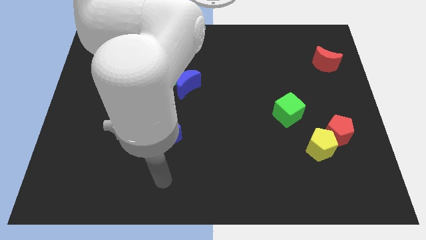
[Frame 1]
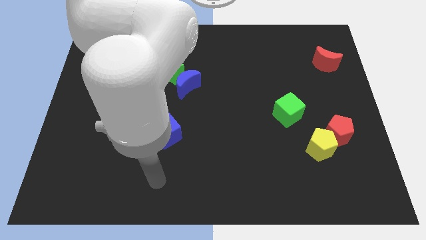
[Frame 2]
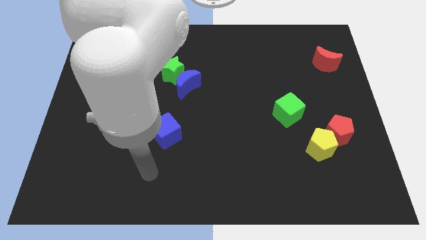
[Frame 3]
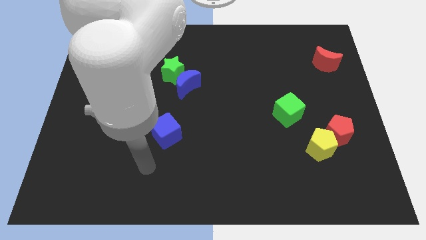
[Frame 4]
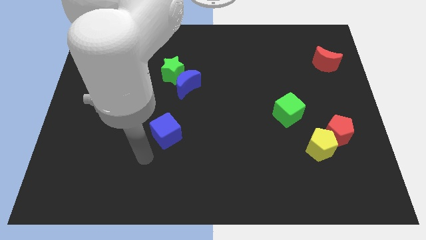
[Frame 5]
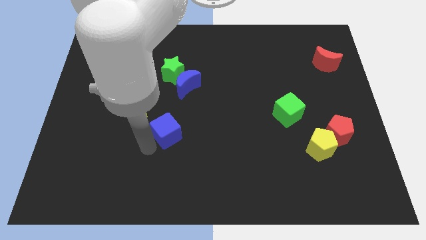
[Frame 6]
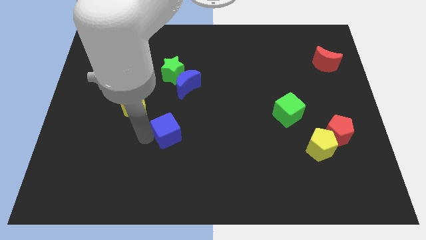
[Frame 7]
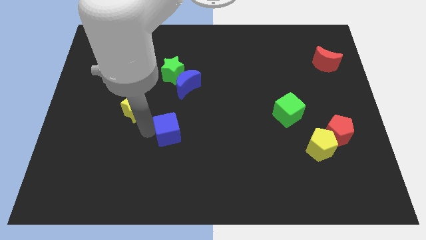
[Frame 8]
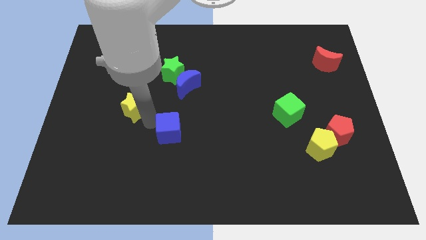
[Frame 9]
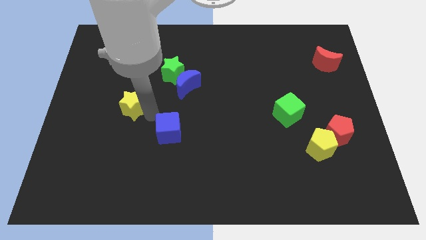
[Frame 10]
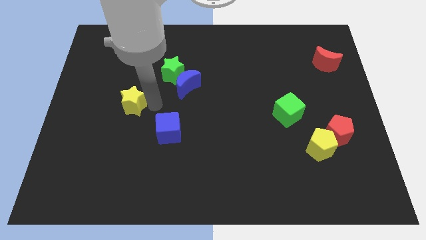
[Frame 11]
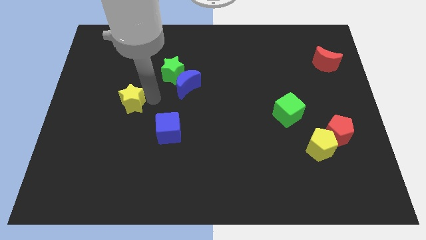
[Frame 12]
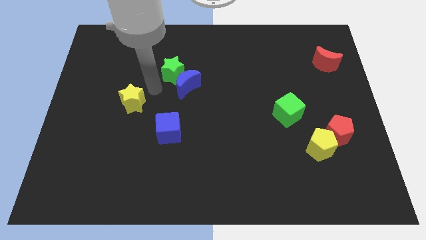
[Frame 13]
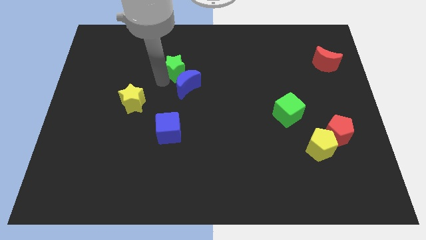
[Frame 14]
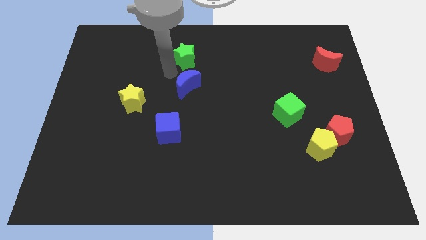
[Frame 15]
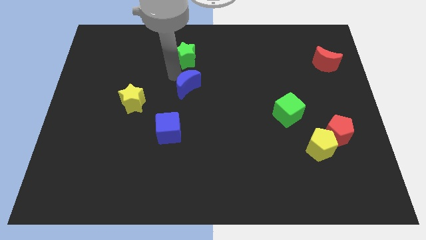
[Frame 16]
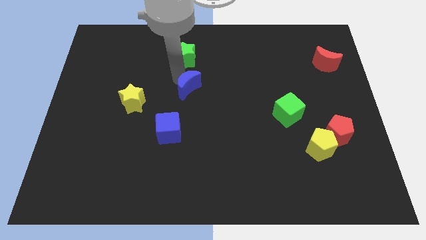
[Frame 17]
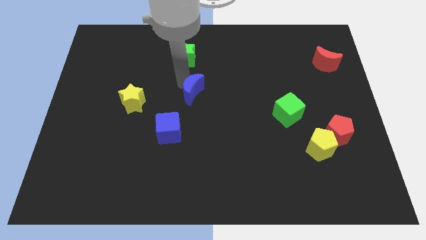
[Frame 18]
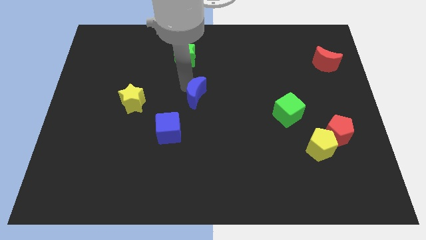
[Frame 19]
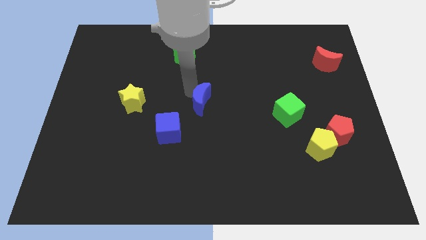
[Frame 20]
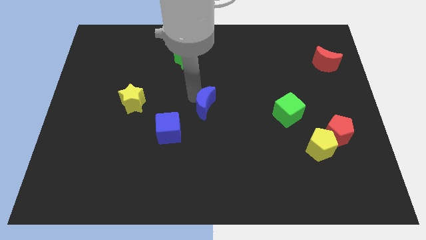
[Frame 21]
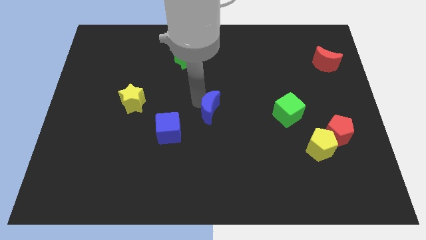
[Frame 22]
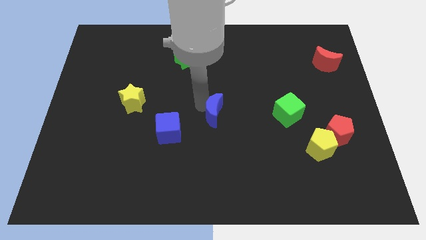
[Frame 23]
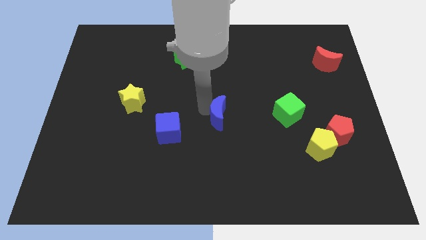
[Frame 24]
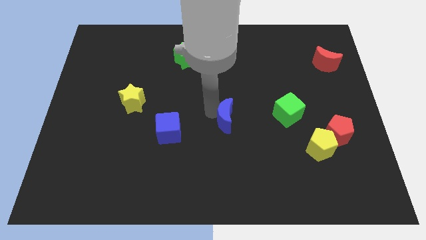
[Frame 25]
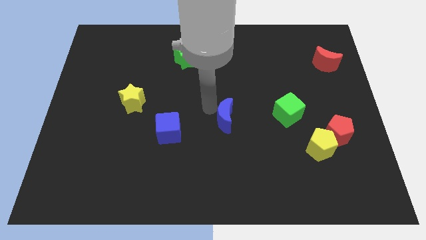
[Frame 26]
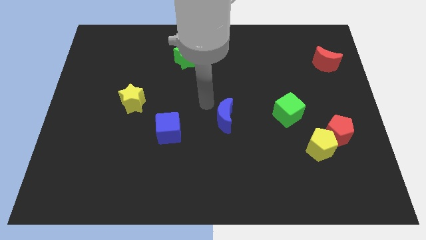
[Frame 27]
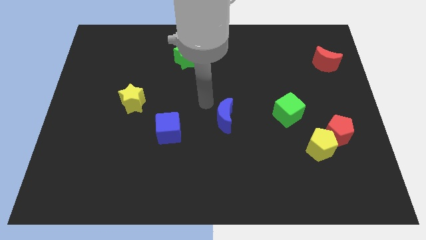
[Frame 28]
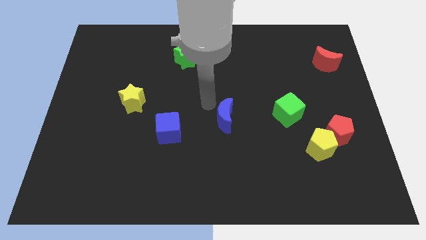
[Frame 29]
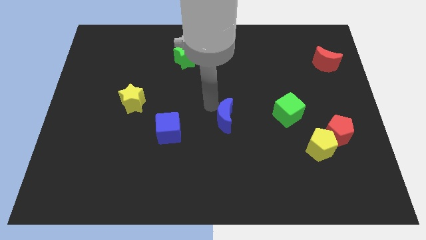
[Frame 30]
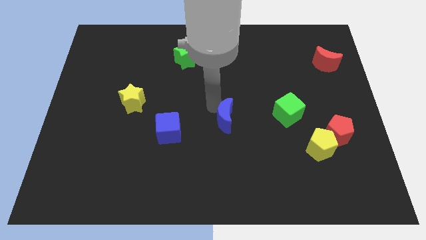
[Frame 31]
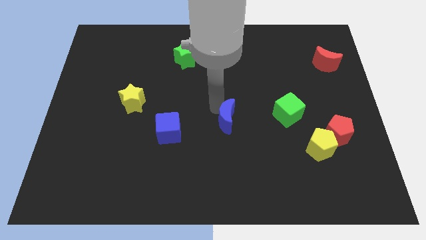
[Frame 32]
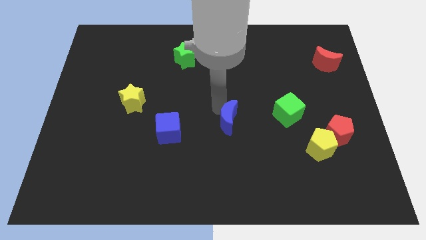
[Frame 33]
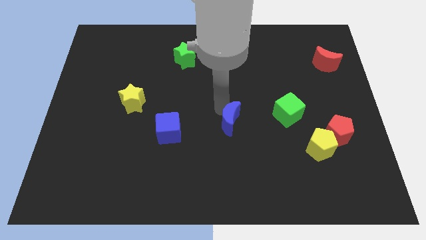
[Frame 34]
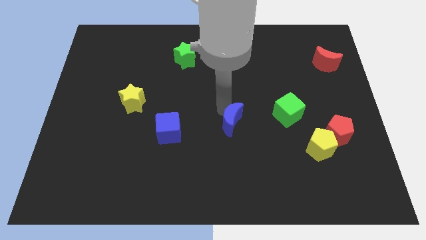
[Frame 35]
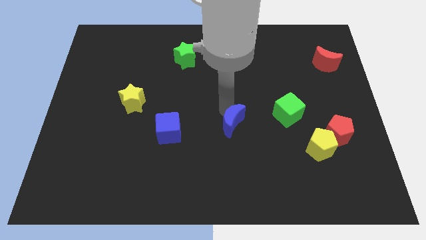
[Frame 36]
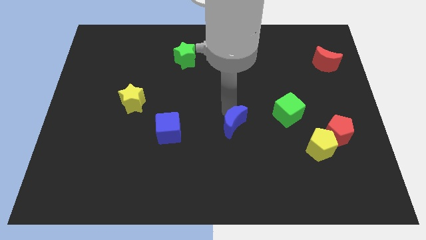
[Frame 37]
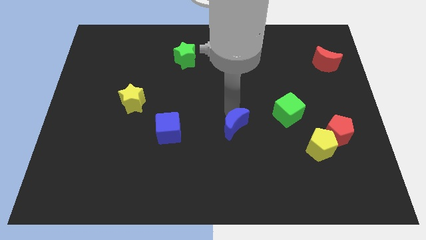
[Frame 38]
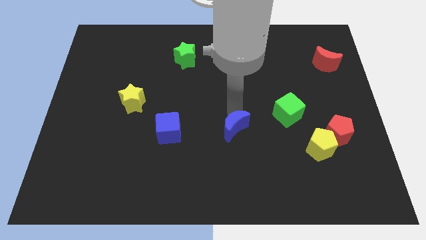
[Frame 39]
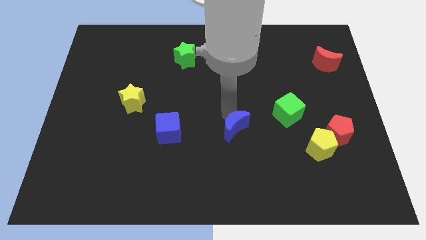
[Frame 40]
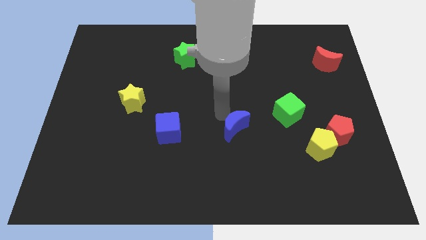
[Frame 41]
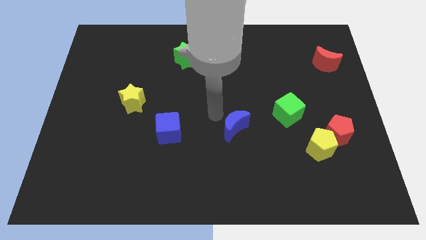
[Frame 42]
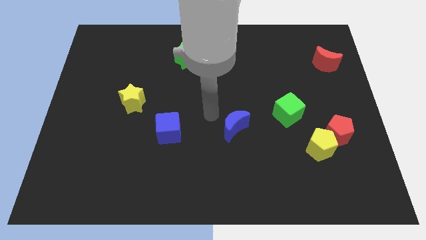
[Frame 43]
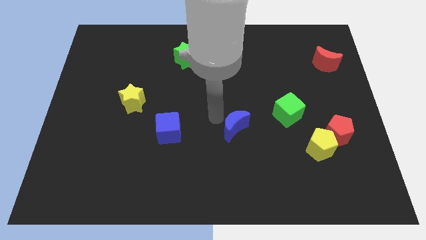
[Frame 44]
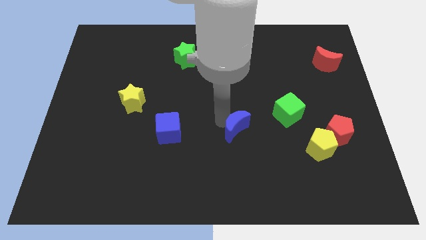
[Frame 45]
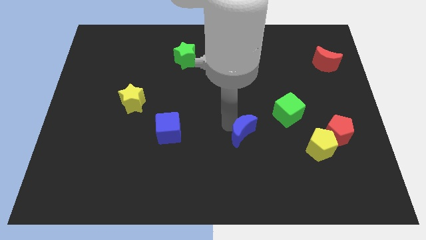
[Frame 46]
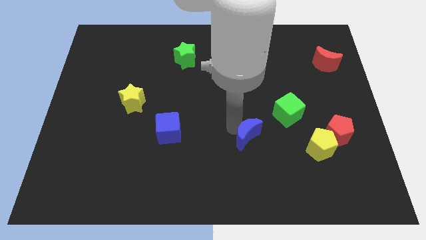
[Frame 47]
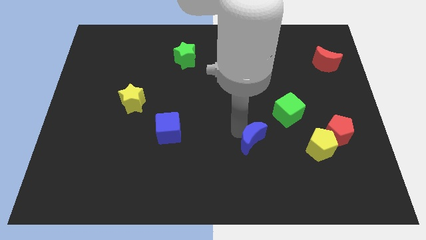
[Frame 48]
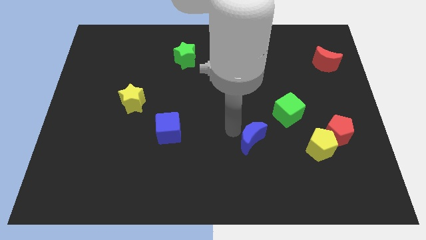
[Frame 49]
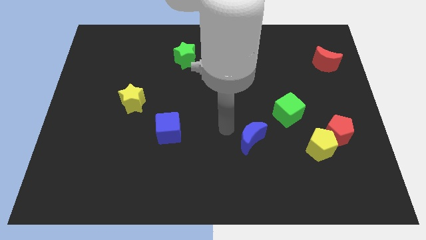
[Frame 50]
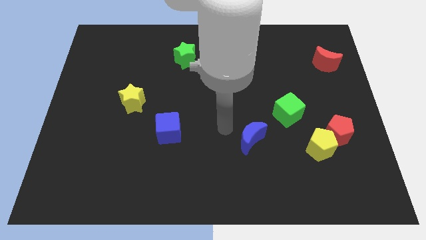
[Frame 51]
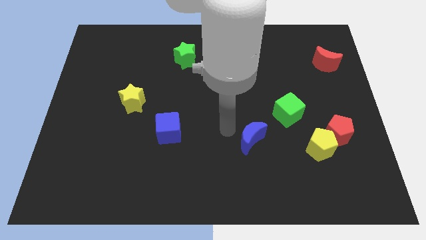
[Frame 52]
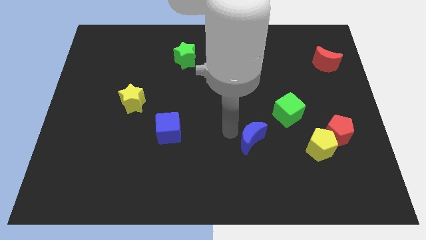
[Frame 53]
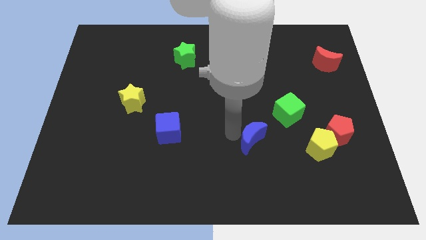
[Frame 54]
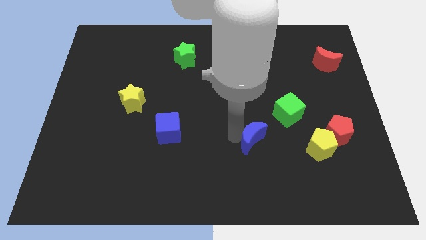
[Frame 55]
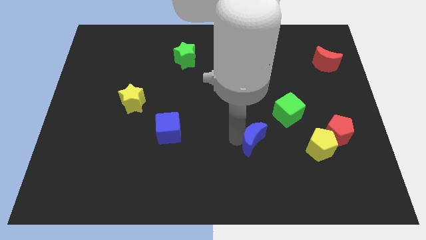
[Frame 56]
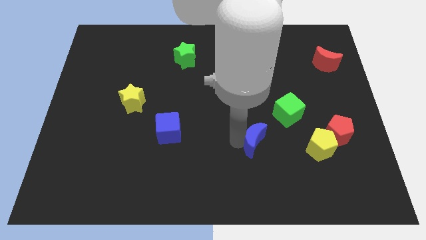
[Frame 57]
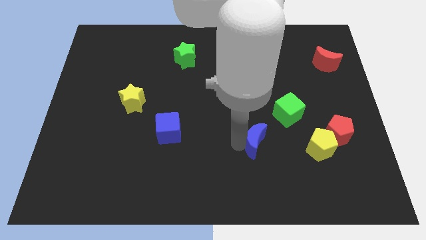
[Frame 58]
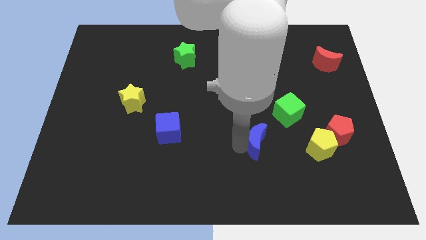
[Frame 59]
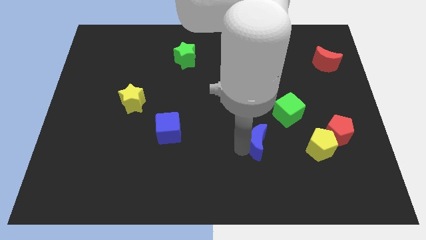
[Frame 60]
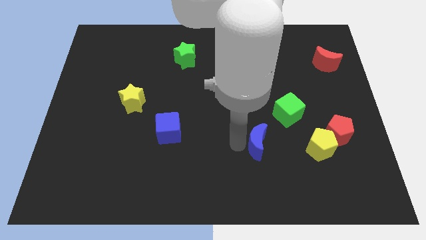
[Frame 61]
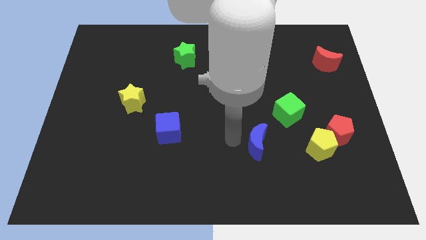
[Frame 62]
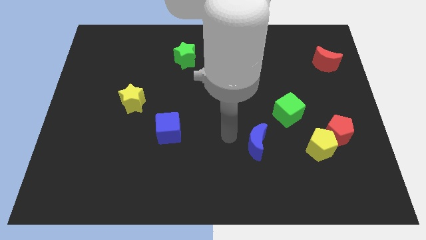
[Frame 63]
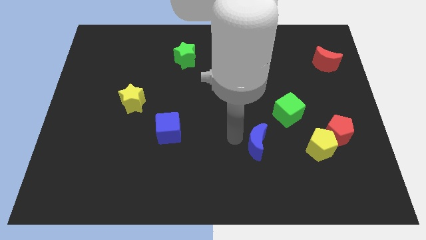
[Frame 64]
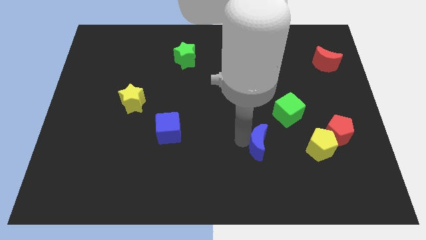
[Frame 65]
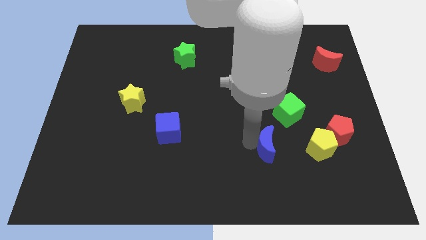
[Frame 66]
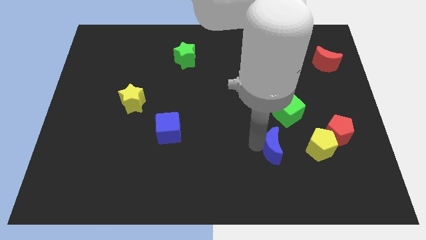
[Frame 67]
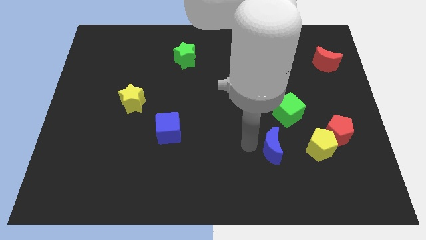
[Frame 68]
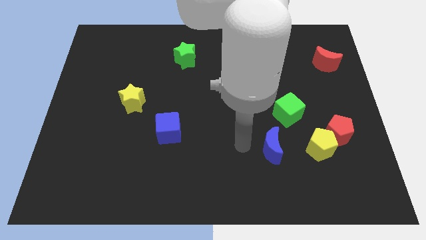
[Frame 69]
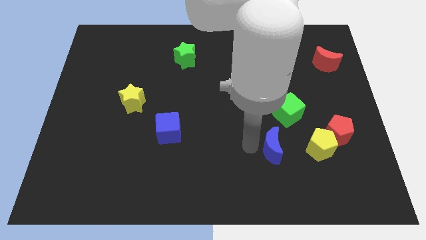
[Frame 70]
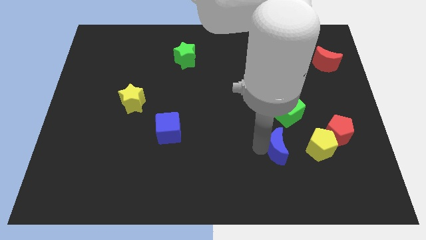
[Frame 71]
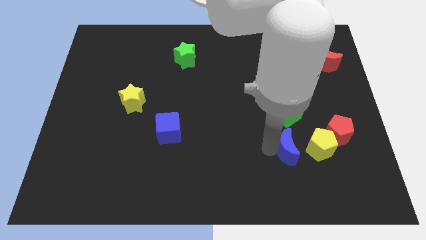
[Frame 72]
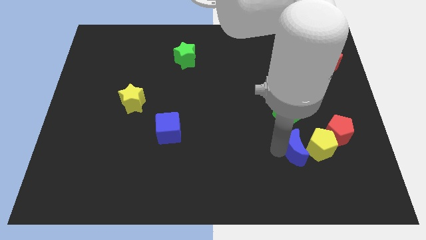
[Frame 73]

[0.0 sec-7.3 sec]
slide the blue moon to the bottom left of the red pentagon
